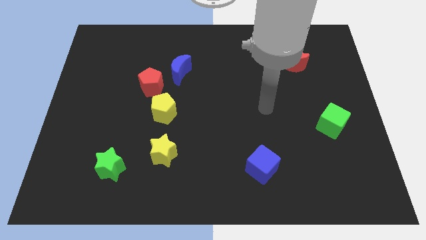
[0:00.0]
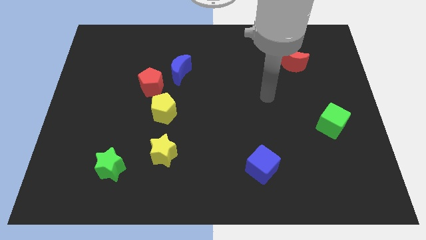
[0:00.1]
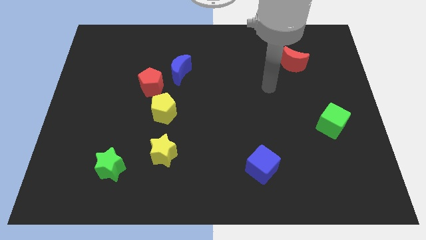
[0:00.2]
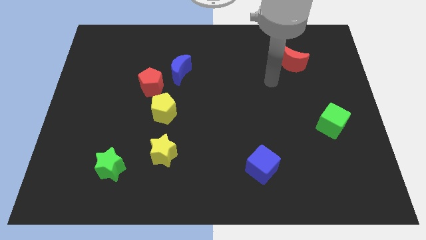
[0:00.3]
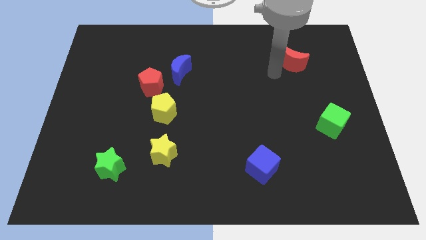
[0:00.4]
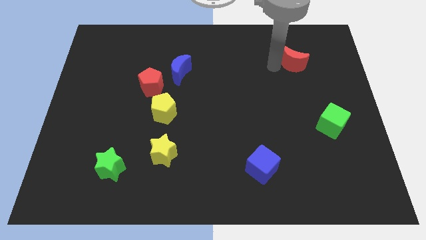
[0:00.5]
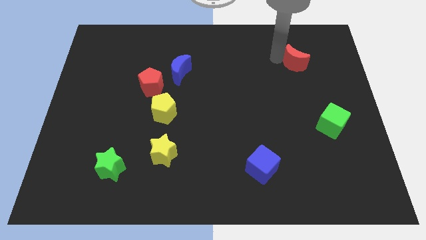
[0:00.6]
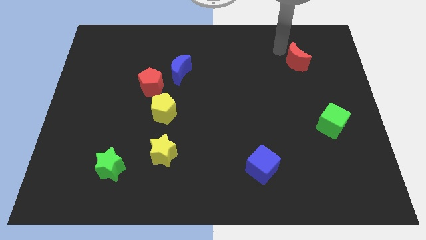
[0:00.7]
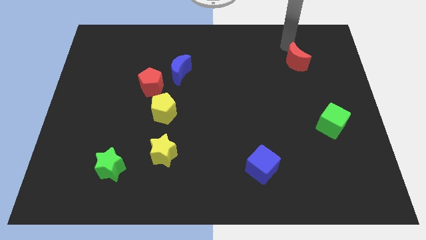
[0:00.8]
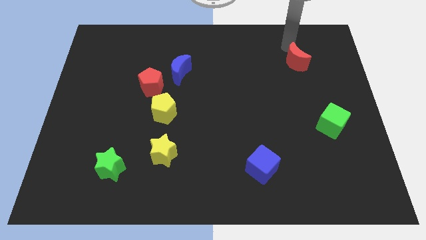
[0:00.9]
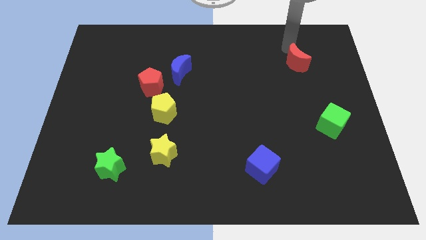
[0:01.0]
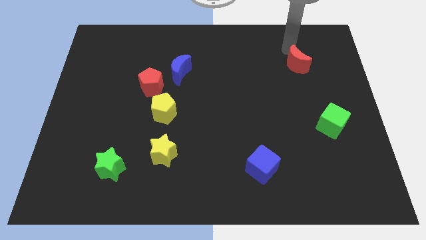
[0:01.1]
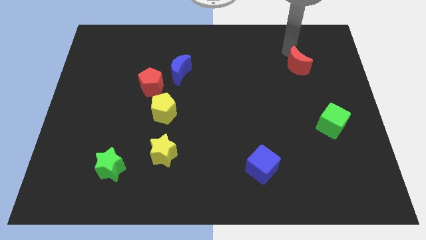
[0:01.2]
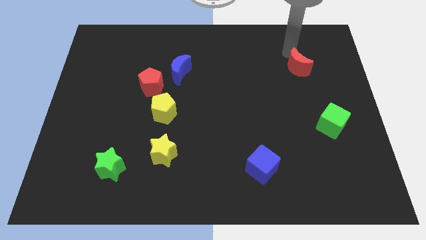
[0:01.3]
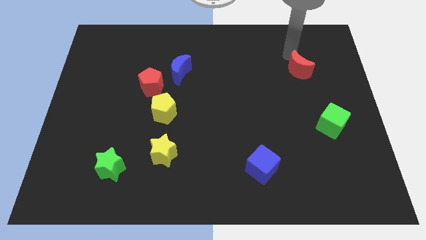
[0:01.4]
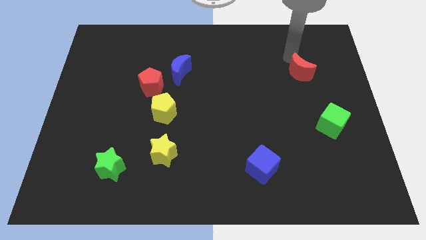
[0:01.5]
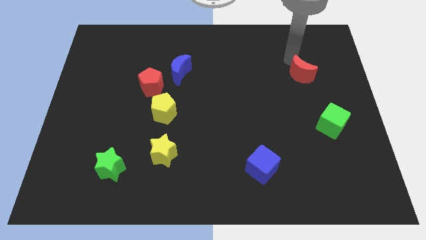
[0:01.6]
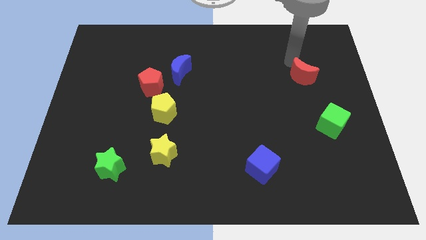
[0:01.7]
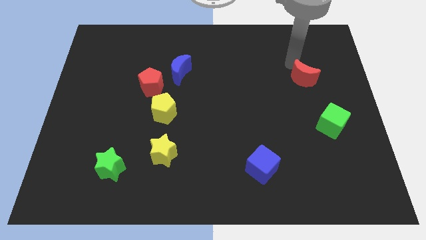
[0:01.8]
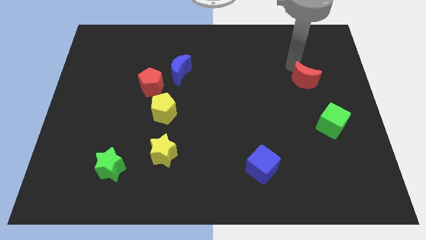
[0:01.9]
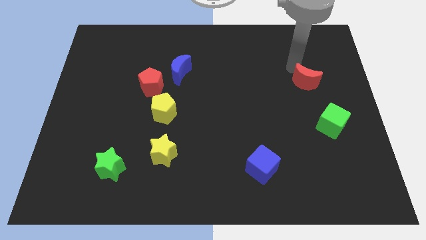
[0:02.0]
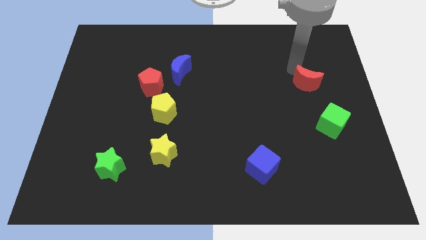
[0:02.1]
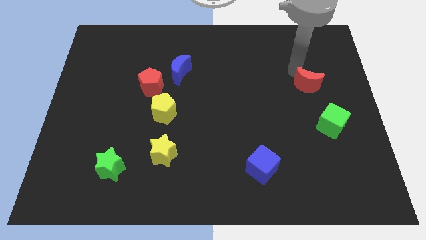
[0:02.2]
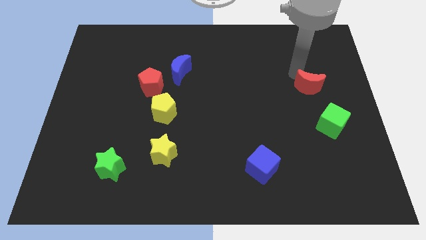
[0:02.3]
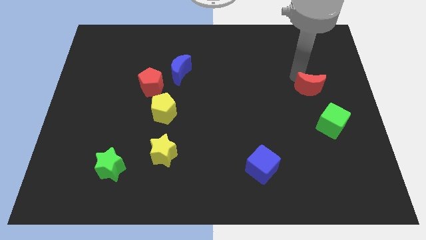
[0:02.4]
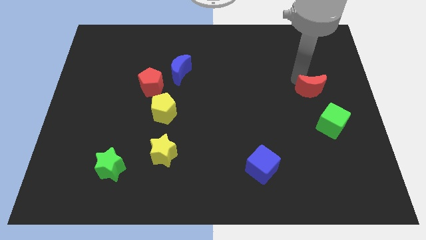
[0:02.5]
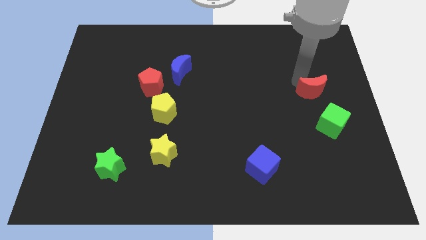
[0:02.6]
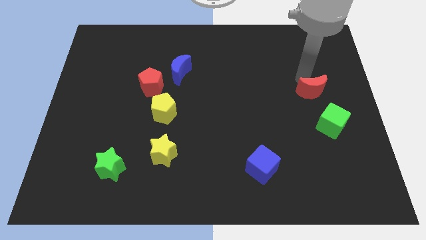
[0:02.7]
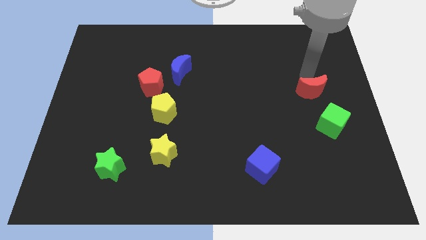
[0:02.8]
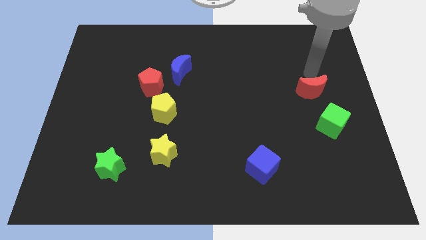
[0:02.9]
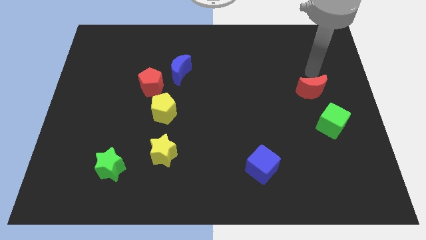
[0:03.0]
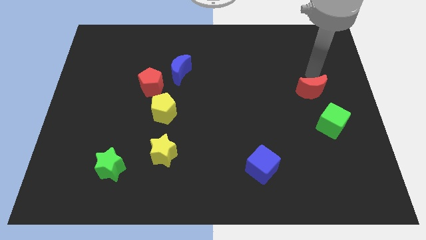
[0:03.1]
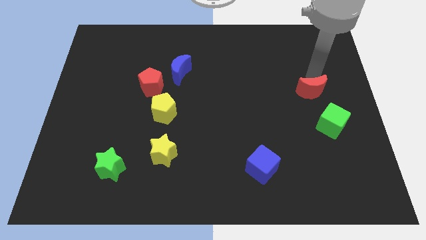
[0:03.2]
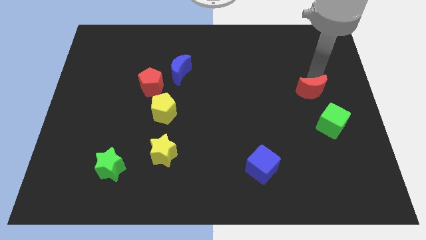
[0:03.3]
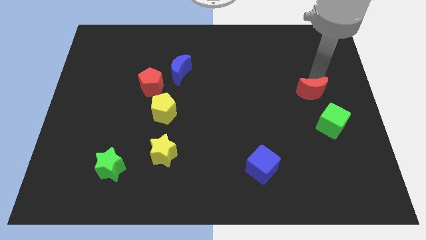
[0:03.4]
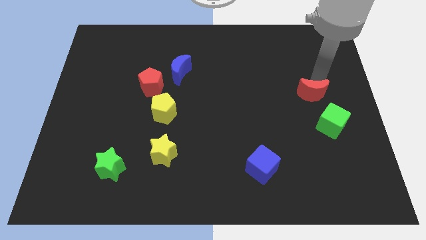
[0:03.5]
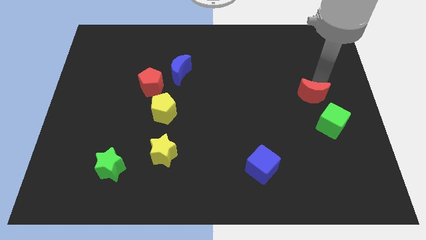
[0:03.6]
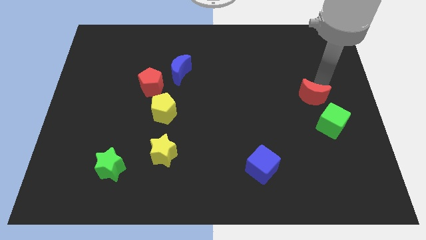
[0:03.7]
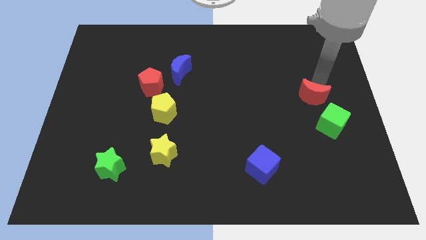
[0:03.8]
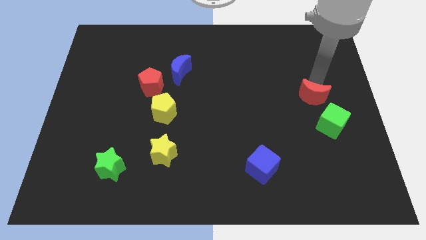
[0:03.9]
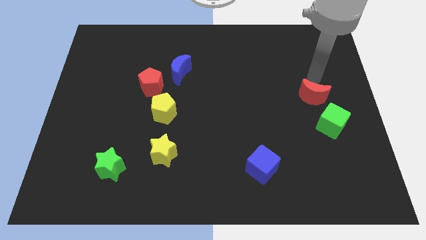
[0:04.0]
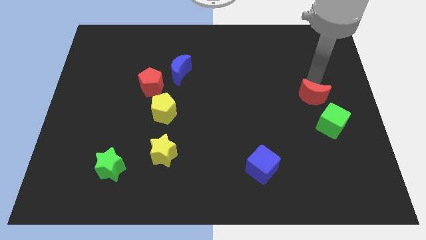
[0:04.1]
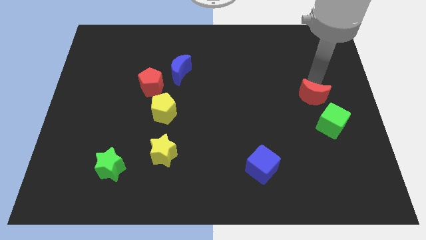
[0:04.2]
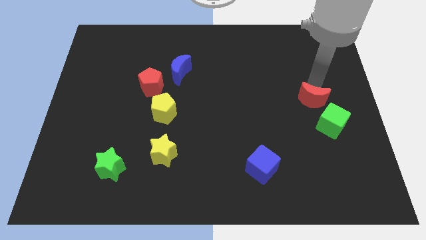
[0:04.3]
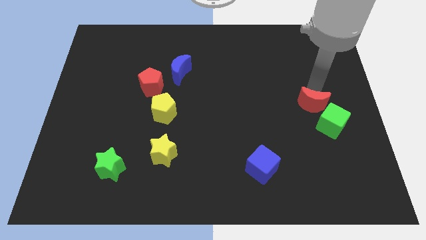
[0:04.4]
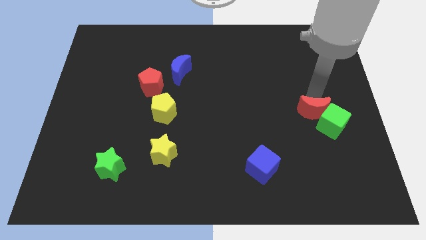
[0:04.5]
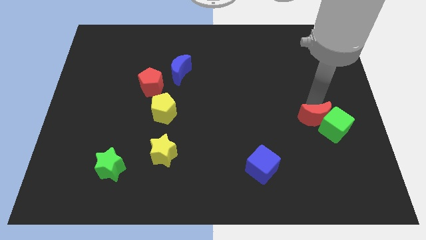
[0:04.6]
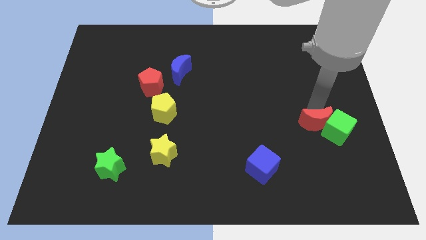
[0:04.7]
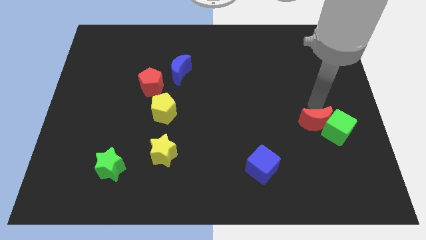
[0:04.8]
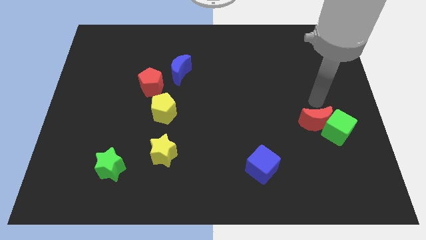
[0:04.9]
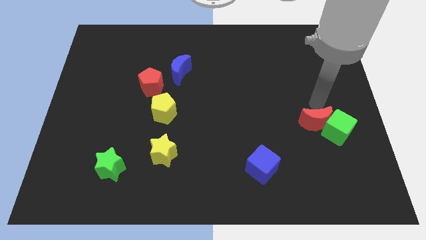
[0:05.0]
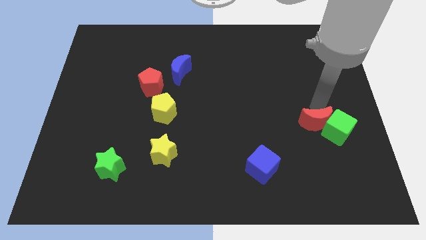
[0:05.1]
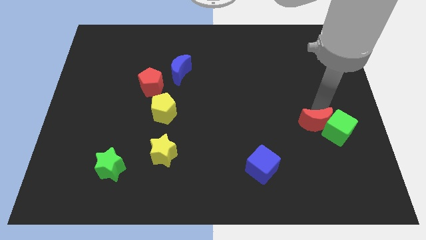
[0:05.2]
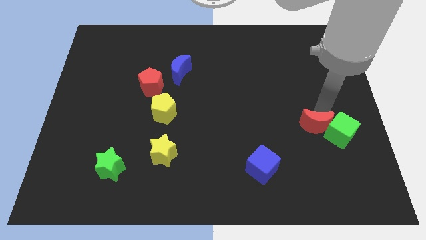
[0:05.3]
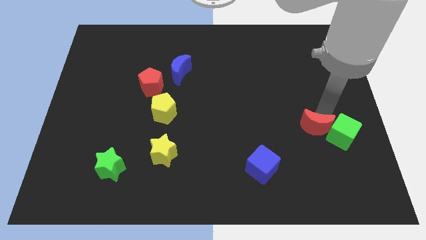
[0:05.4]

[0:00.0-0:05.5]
slide the red moon downwards

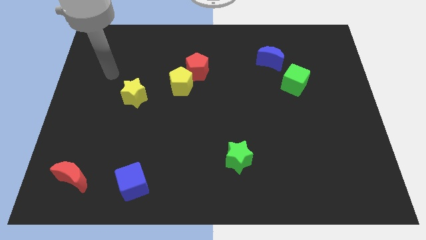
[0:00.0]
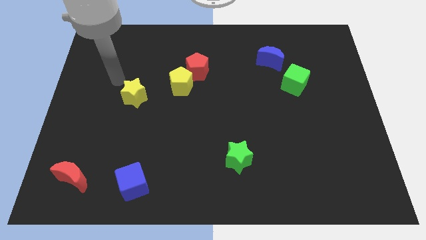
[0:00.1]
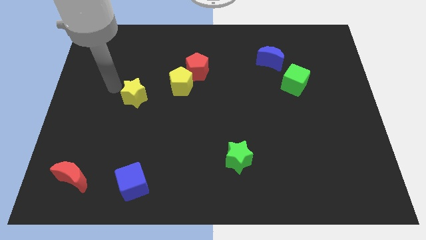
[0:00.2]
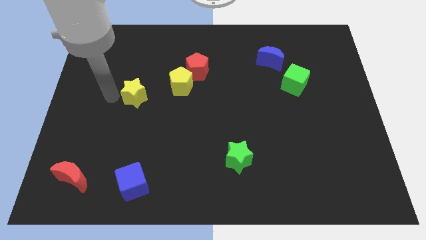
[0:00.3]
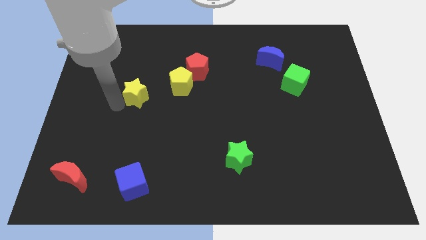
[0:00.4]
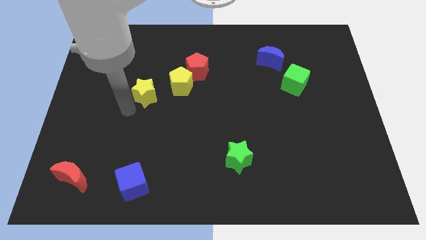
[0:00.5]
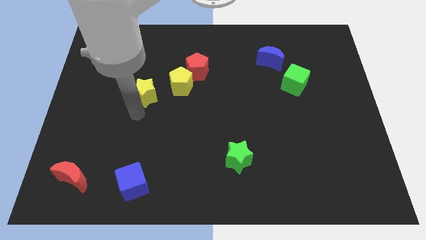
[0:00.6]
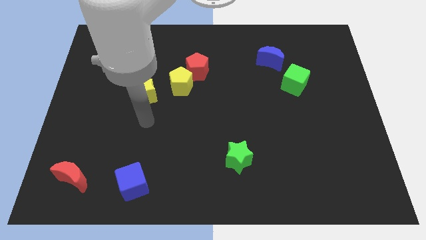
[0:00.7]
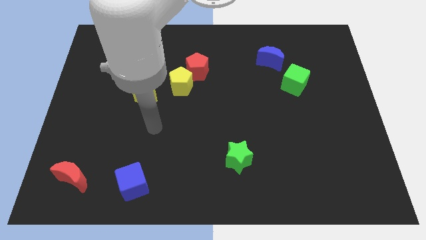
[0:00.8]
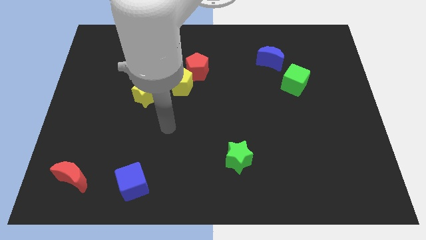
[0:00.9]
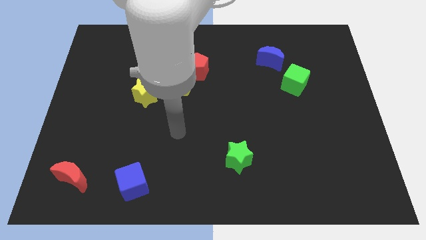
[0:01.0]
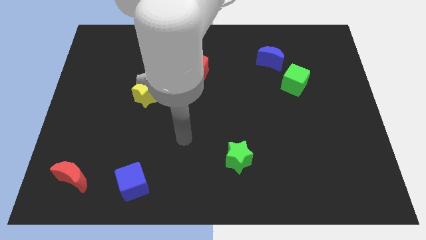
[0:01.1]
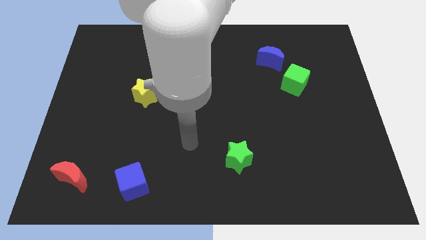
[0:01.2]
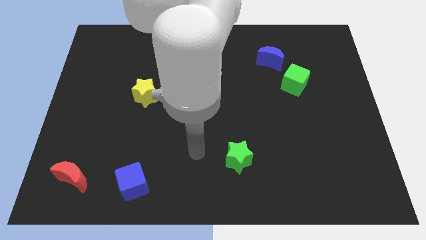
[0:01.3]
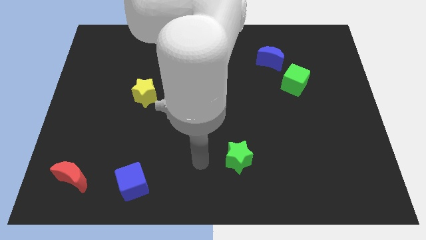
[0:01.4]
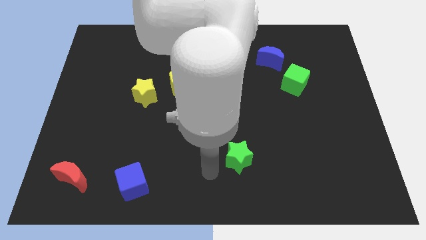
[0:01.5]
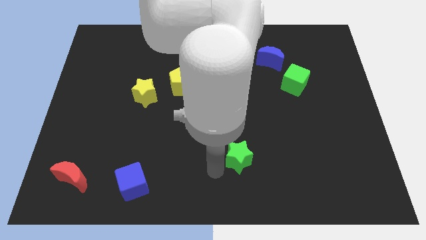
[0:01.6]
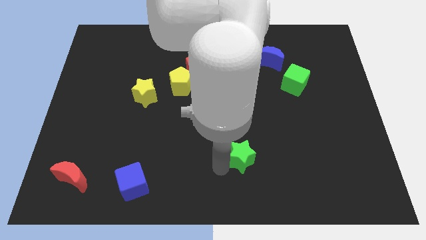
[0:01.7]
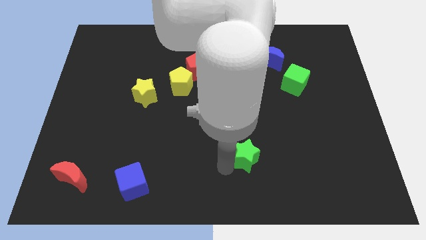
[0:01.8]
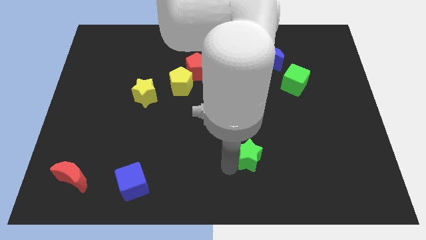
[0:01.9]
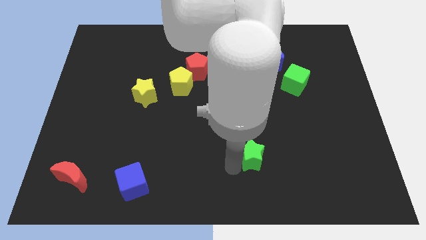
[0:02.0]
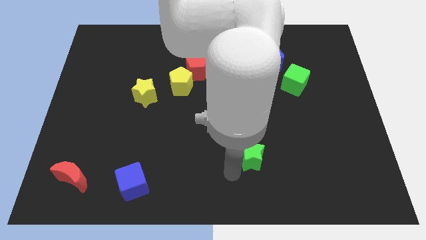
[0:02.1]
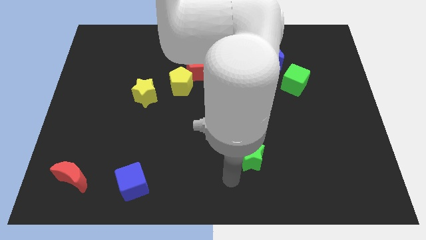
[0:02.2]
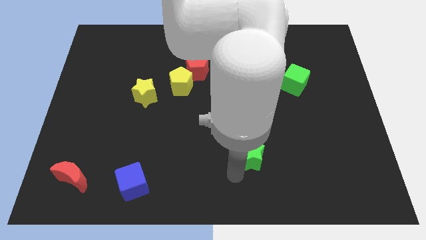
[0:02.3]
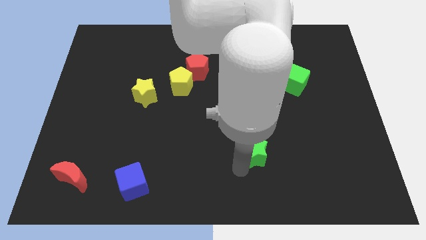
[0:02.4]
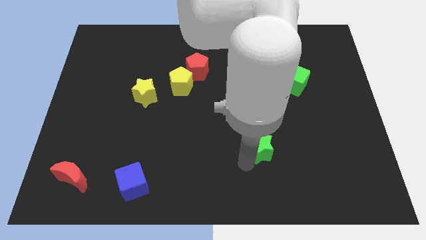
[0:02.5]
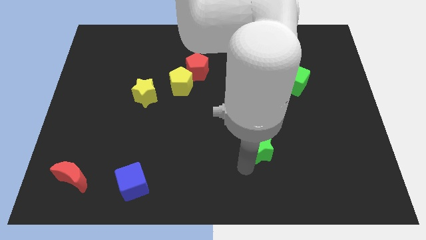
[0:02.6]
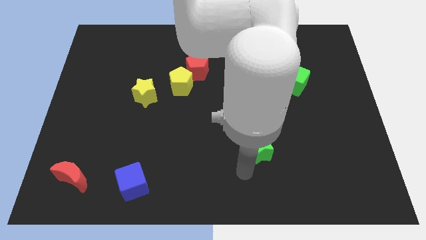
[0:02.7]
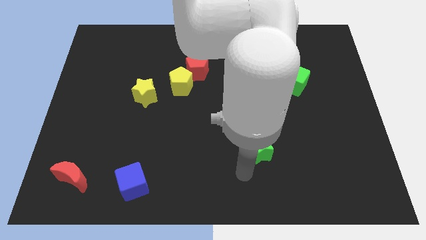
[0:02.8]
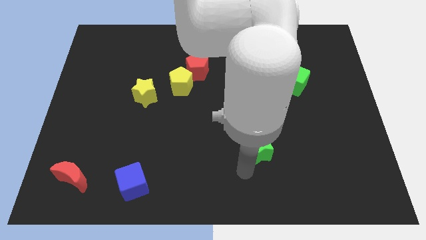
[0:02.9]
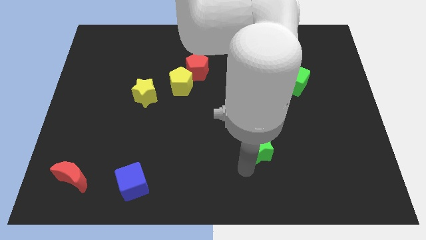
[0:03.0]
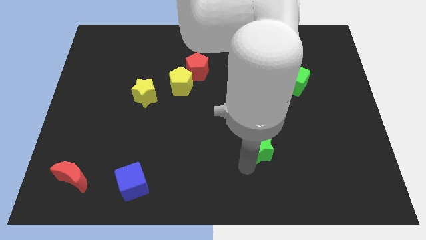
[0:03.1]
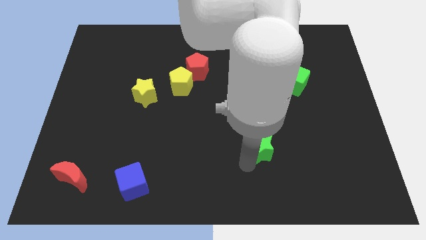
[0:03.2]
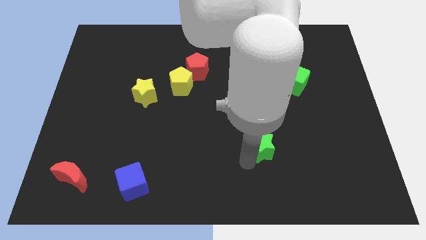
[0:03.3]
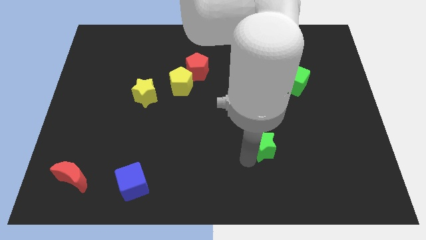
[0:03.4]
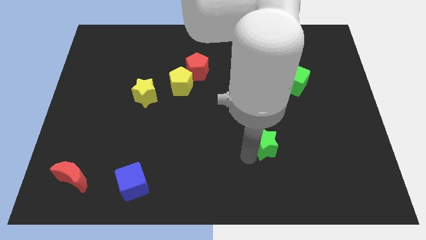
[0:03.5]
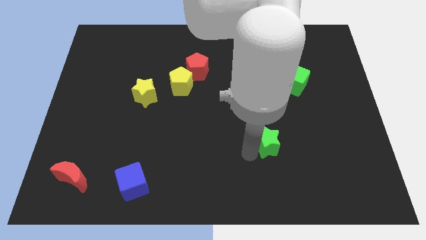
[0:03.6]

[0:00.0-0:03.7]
slide the green star diagonally up and to the right somewhat
